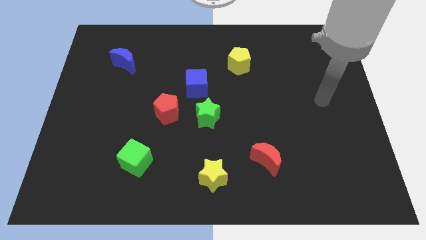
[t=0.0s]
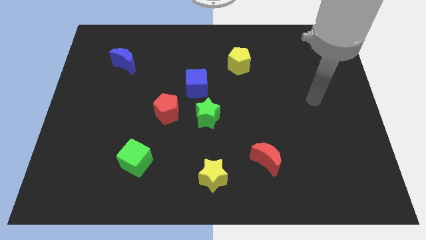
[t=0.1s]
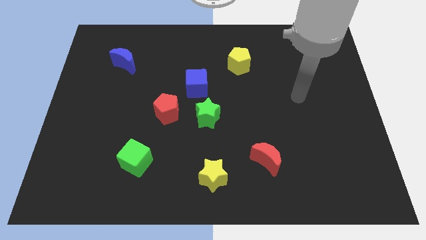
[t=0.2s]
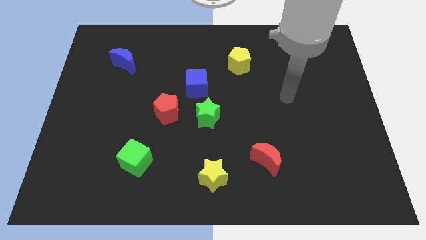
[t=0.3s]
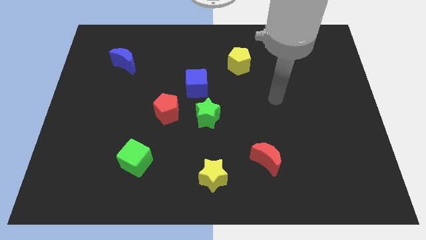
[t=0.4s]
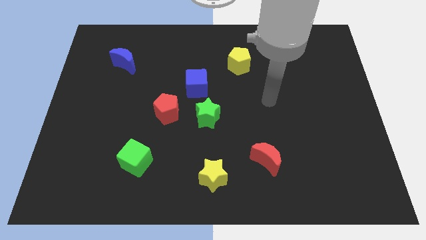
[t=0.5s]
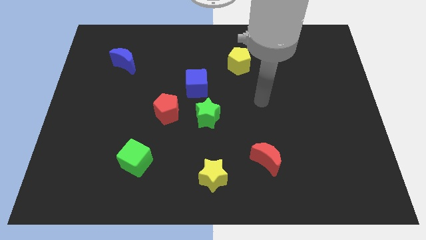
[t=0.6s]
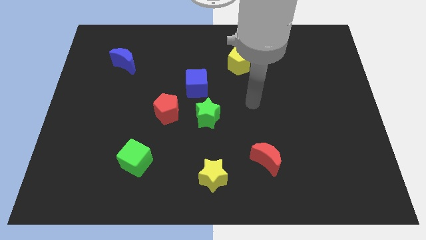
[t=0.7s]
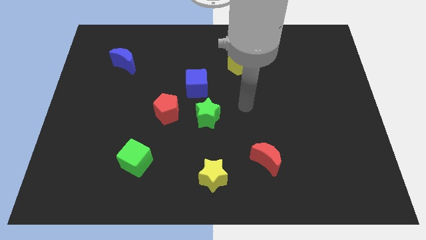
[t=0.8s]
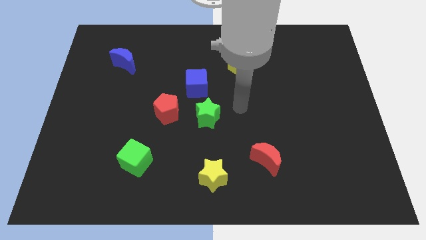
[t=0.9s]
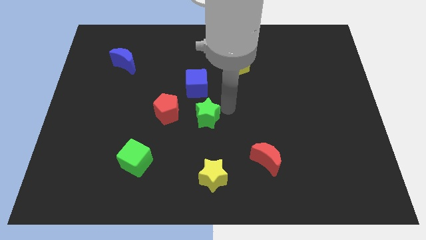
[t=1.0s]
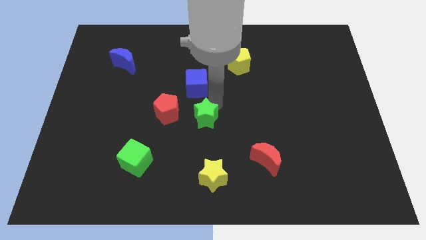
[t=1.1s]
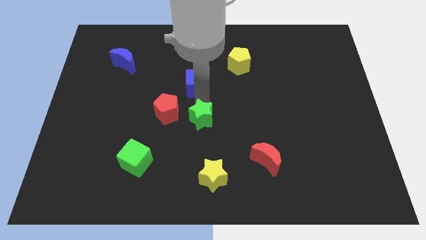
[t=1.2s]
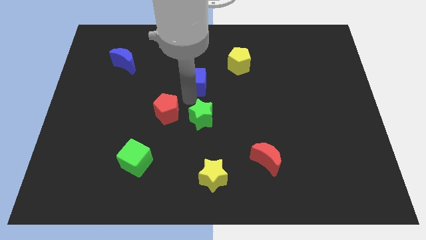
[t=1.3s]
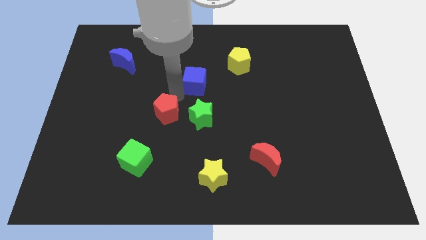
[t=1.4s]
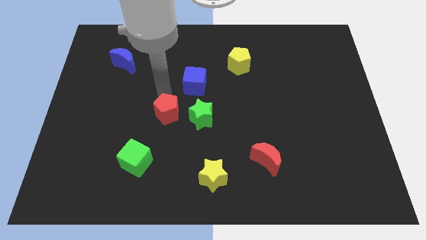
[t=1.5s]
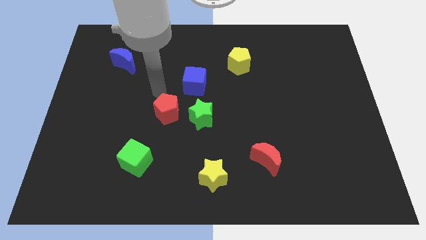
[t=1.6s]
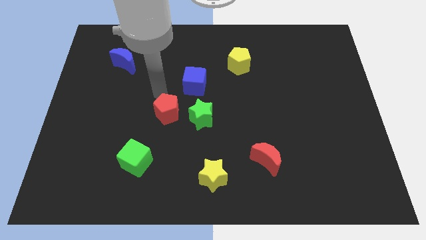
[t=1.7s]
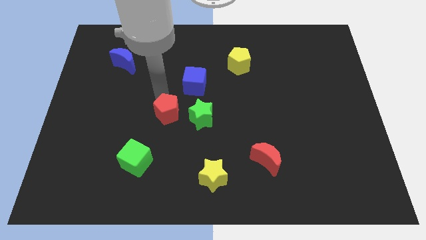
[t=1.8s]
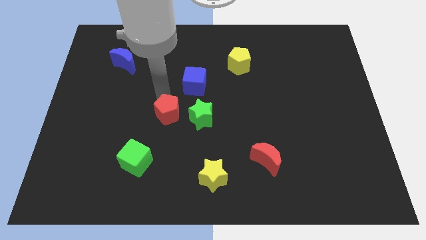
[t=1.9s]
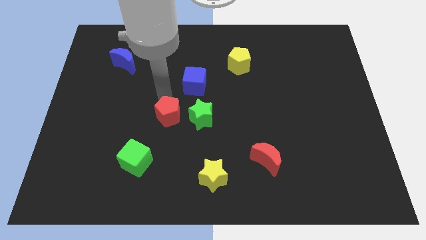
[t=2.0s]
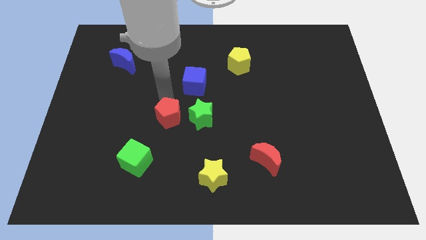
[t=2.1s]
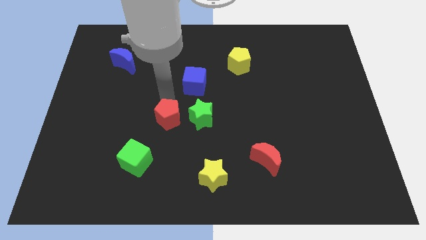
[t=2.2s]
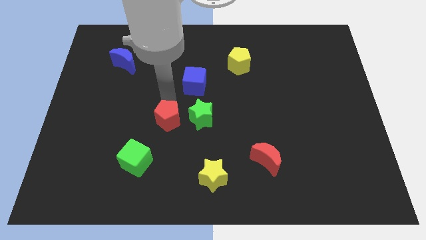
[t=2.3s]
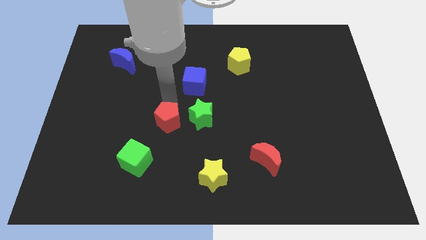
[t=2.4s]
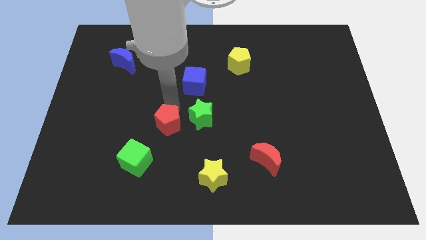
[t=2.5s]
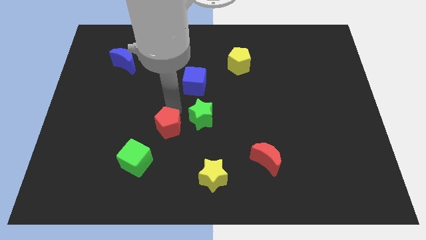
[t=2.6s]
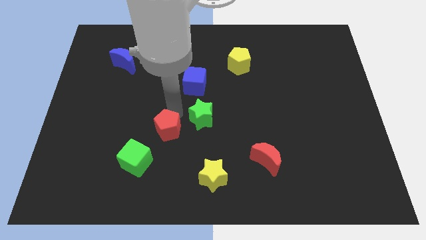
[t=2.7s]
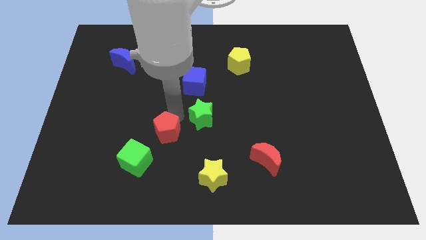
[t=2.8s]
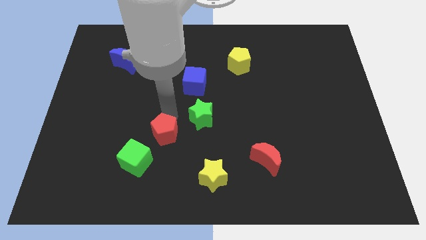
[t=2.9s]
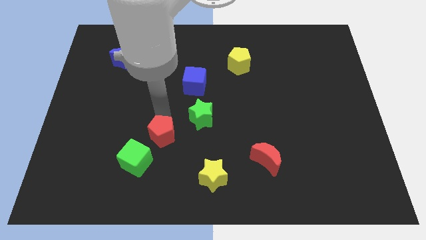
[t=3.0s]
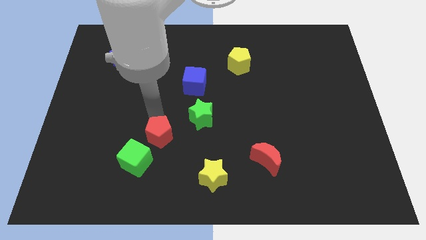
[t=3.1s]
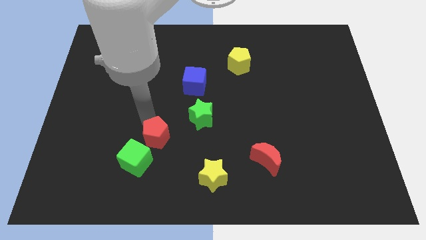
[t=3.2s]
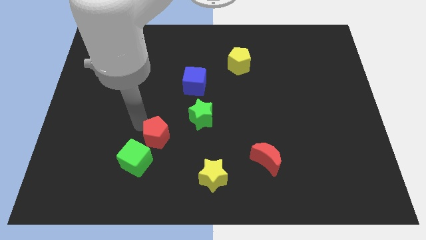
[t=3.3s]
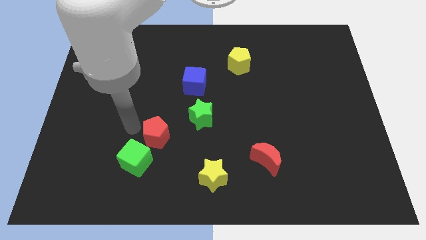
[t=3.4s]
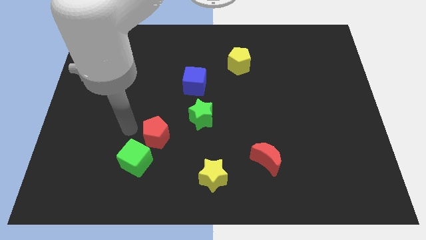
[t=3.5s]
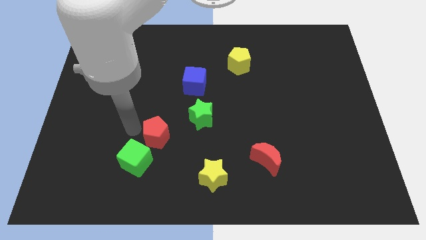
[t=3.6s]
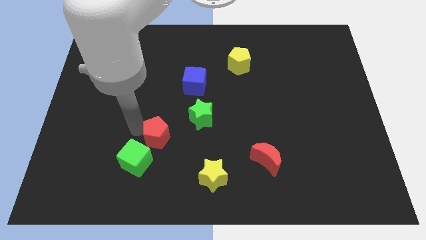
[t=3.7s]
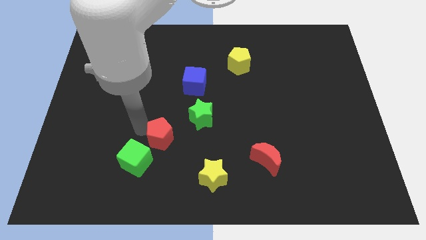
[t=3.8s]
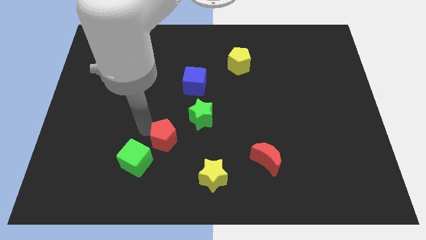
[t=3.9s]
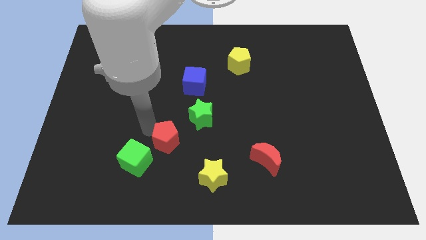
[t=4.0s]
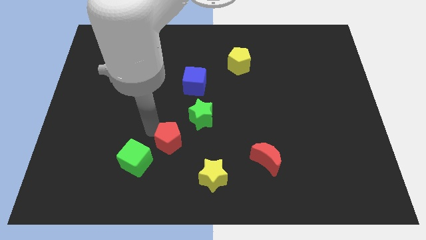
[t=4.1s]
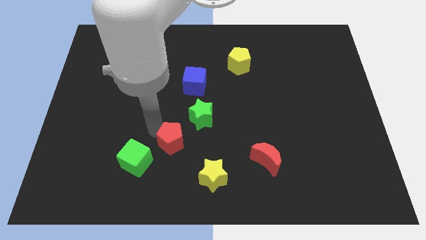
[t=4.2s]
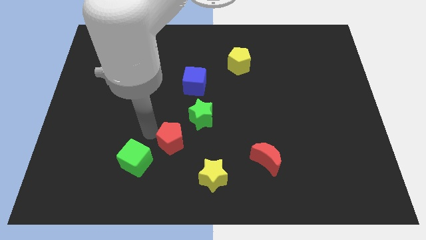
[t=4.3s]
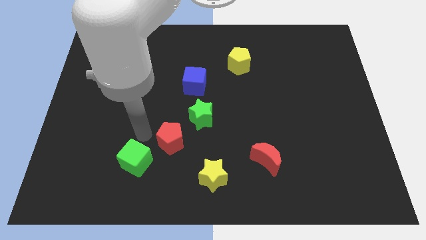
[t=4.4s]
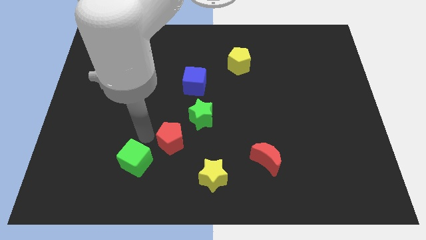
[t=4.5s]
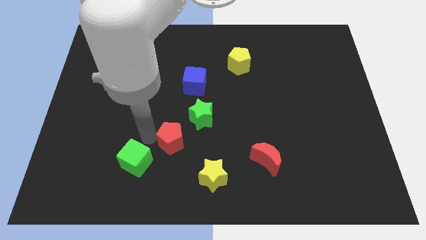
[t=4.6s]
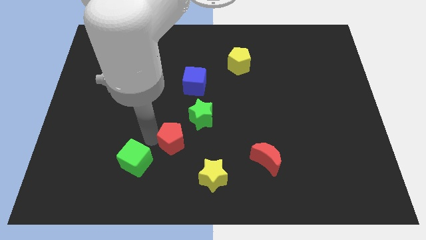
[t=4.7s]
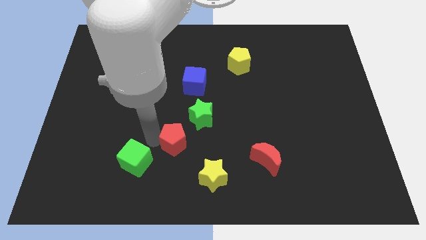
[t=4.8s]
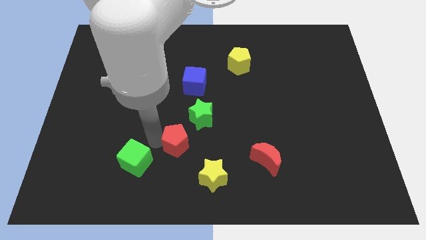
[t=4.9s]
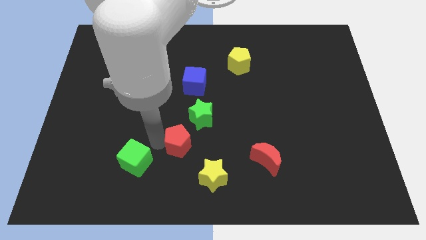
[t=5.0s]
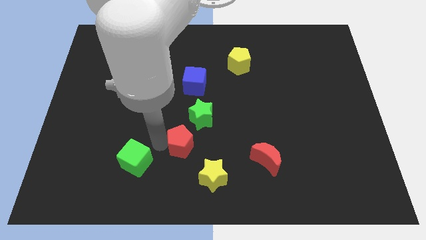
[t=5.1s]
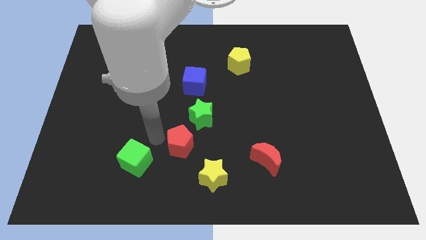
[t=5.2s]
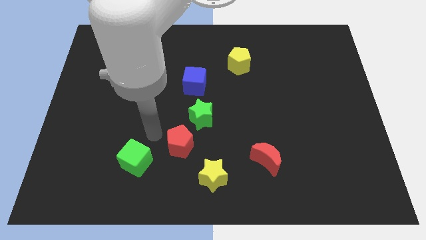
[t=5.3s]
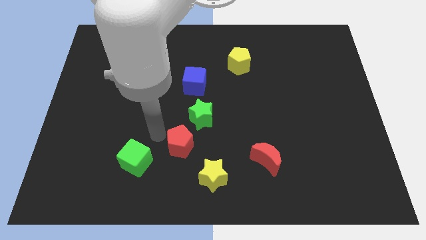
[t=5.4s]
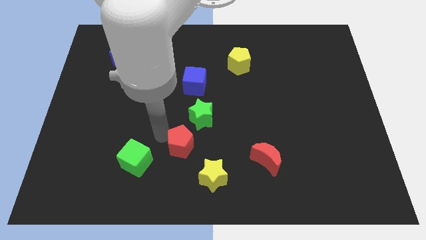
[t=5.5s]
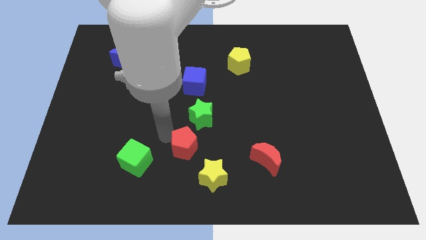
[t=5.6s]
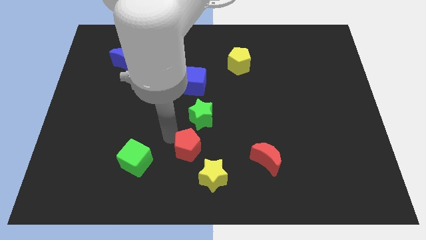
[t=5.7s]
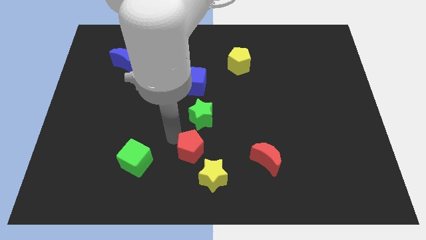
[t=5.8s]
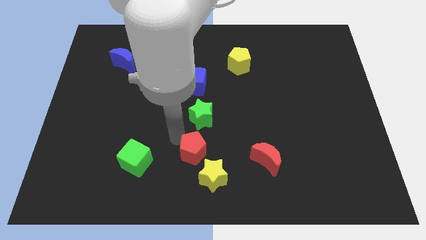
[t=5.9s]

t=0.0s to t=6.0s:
slide the red pentagon to the left of the red moon

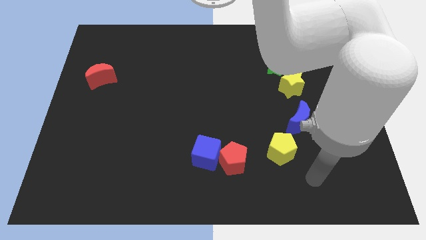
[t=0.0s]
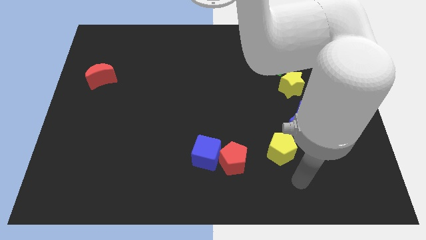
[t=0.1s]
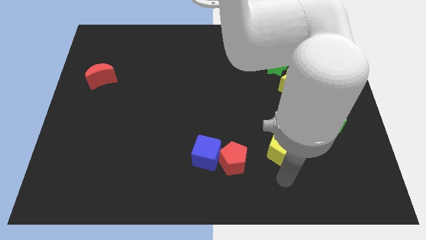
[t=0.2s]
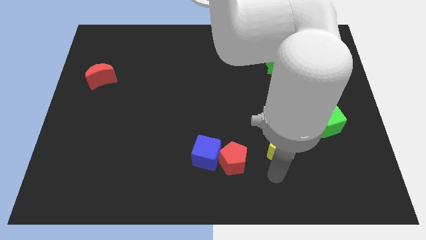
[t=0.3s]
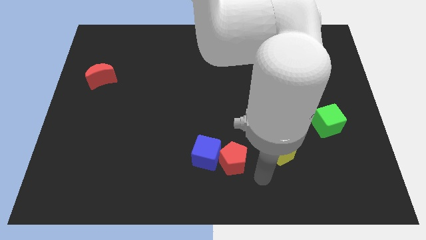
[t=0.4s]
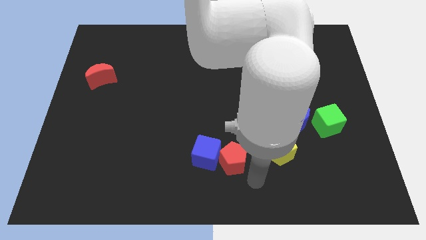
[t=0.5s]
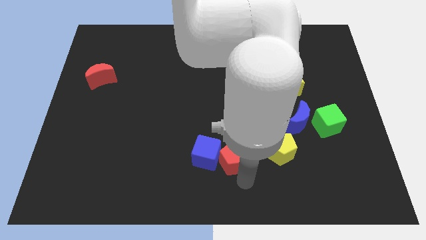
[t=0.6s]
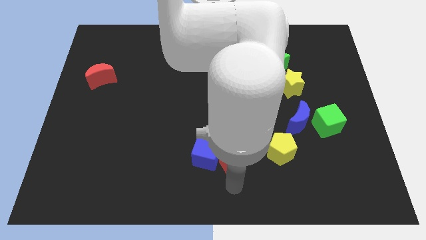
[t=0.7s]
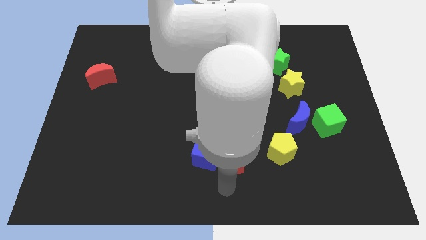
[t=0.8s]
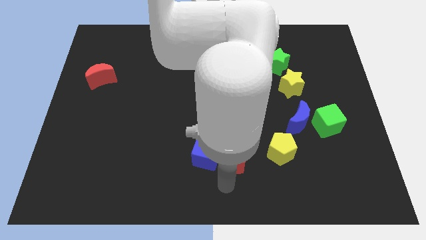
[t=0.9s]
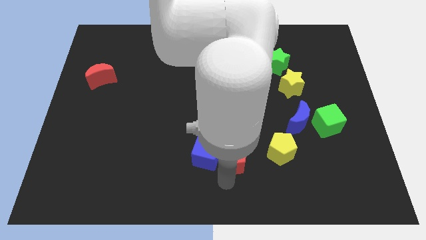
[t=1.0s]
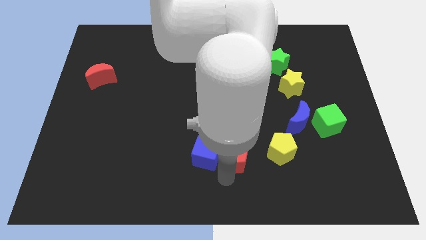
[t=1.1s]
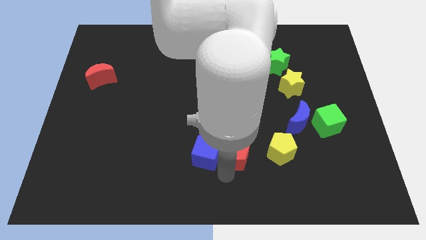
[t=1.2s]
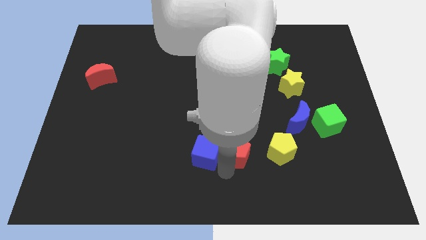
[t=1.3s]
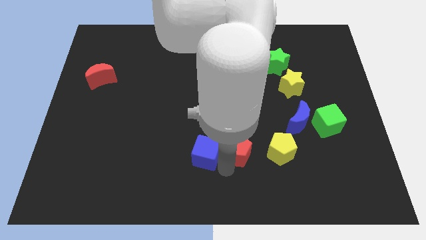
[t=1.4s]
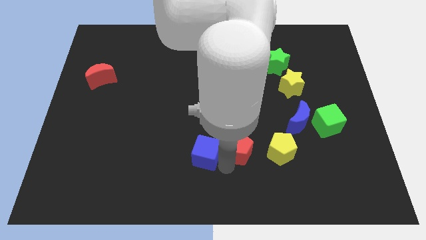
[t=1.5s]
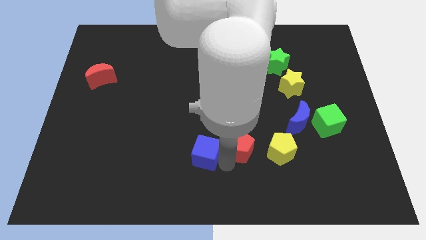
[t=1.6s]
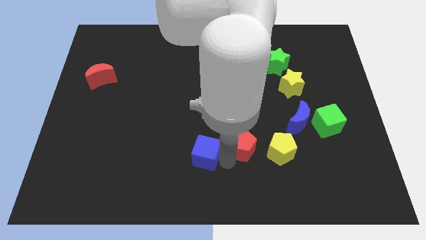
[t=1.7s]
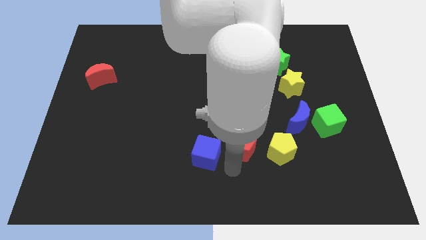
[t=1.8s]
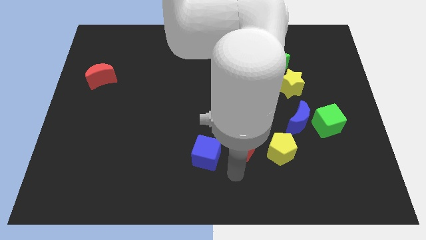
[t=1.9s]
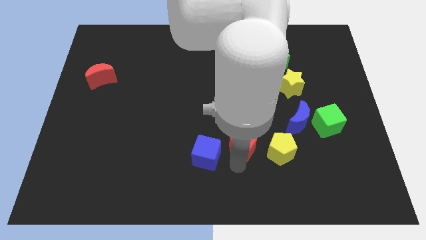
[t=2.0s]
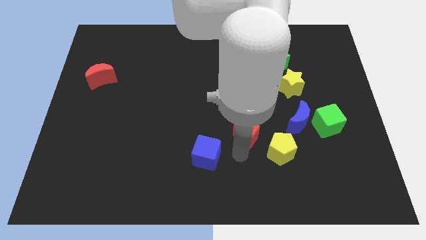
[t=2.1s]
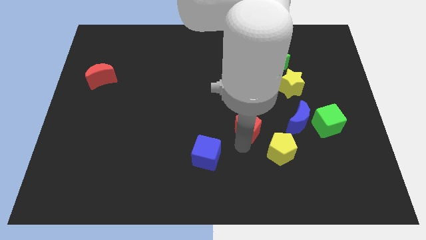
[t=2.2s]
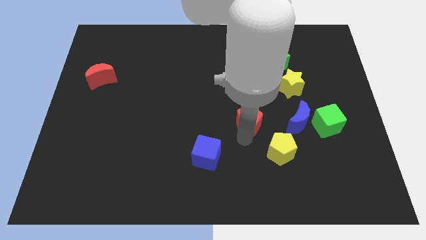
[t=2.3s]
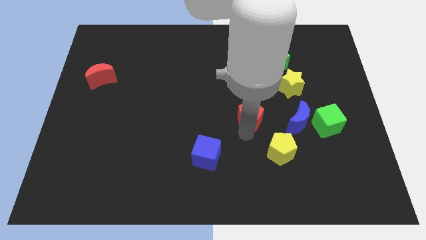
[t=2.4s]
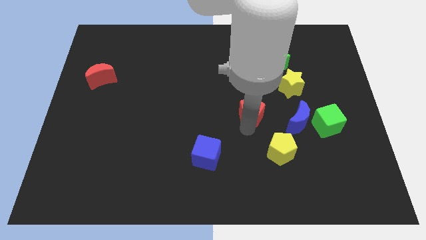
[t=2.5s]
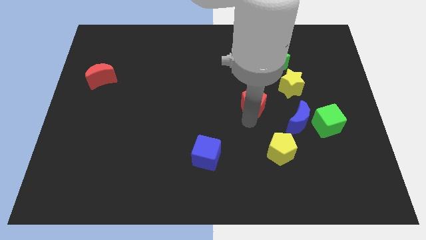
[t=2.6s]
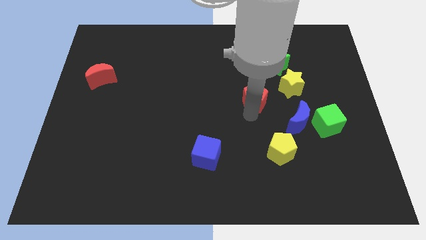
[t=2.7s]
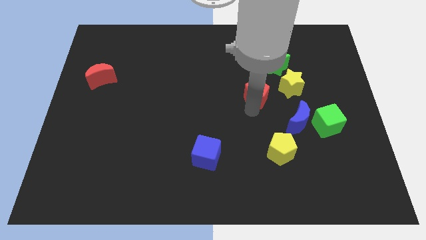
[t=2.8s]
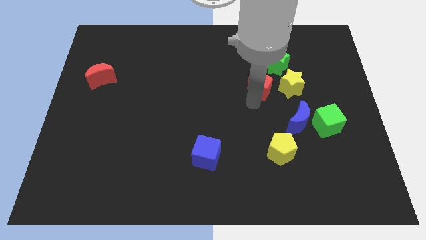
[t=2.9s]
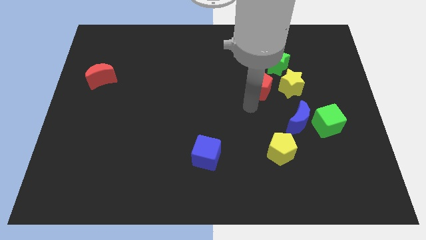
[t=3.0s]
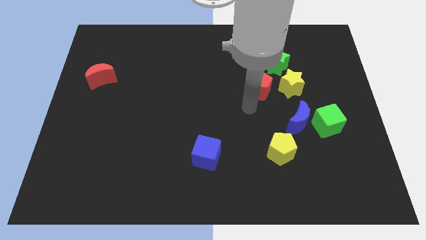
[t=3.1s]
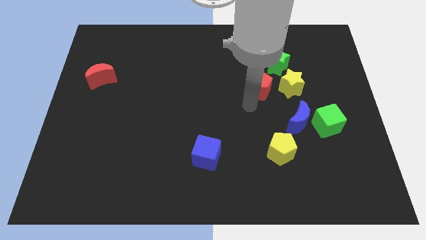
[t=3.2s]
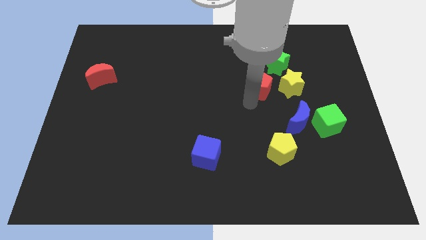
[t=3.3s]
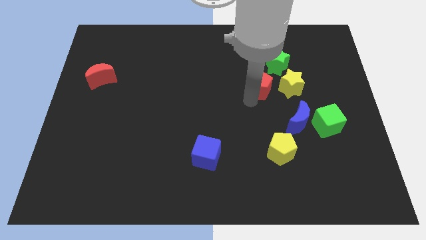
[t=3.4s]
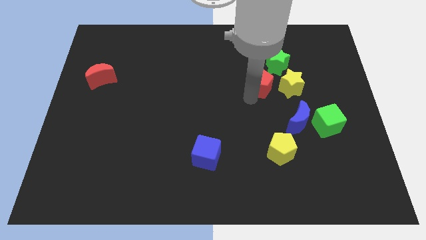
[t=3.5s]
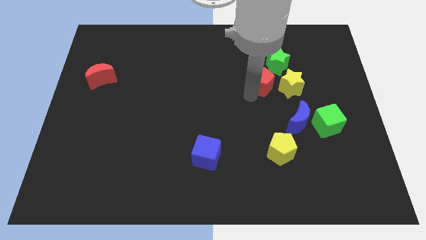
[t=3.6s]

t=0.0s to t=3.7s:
move the red pentagon to the top left side of the yellow star
